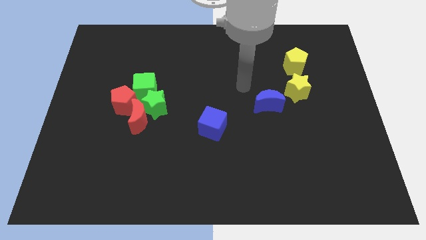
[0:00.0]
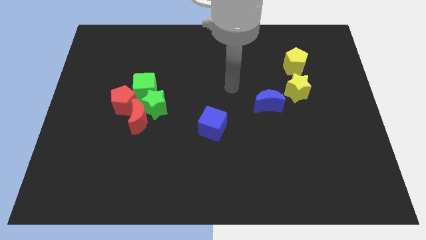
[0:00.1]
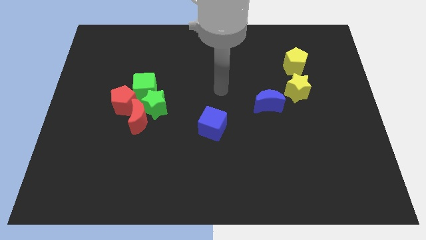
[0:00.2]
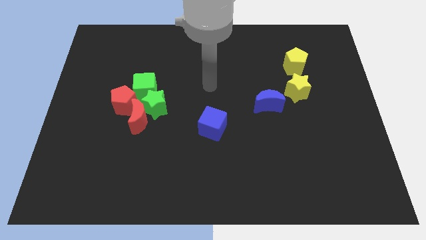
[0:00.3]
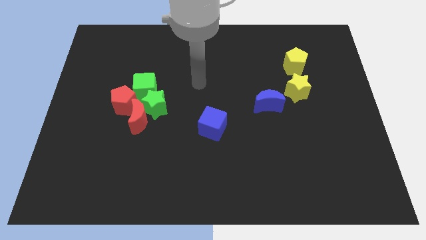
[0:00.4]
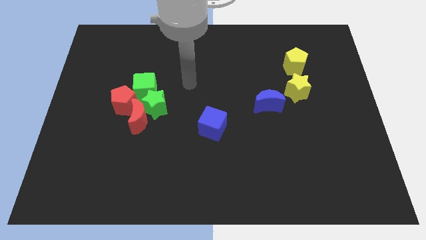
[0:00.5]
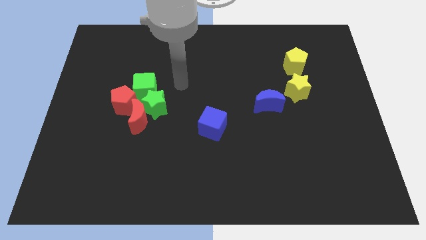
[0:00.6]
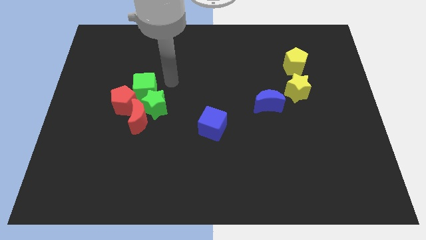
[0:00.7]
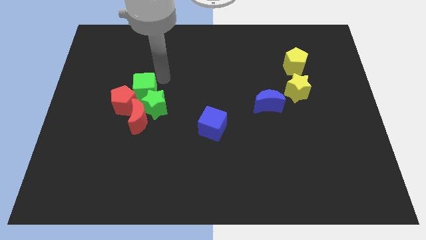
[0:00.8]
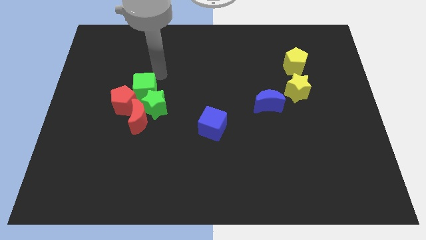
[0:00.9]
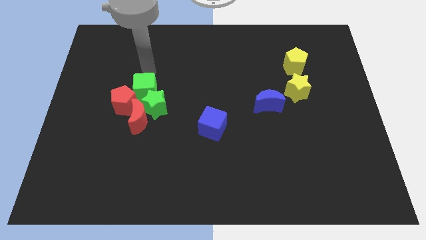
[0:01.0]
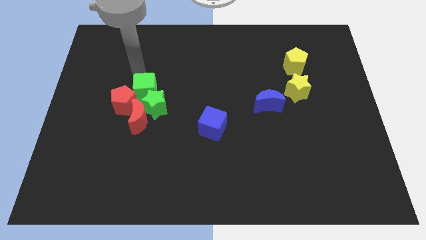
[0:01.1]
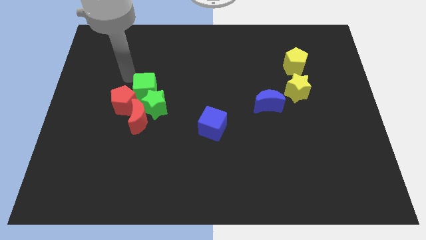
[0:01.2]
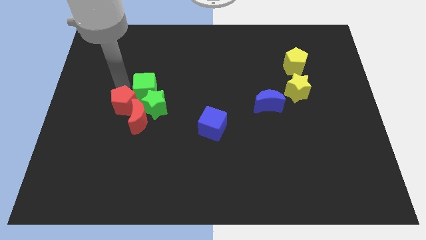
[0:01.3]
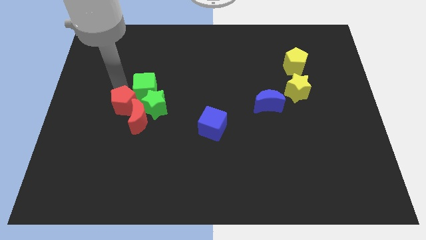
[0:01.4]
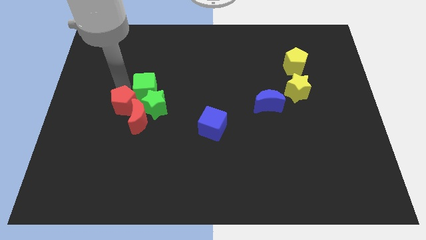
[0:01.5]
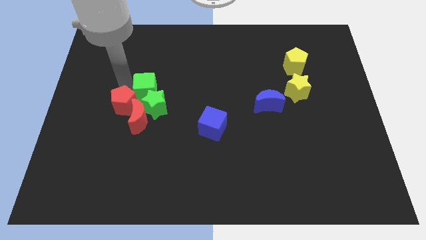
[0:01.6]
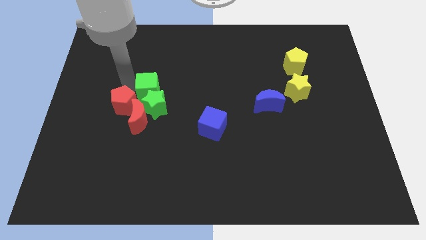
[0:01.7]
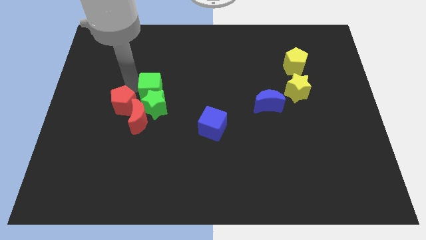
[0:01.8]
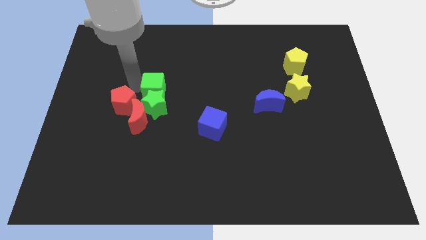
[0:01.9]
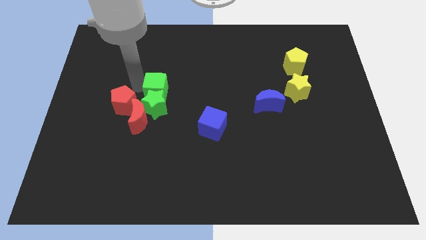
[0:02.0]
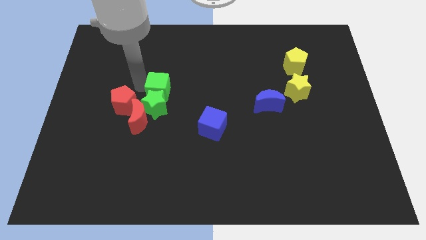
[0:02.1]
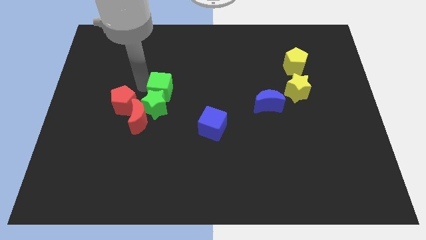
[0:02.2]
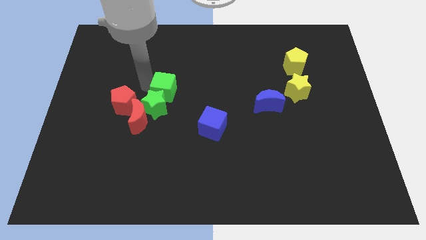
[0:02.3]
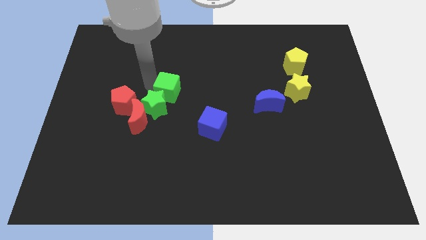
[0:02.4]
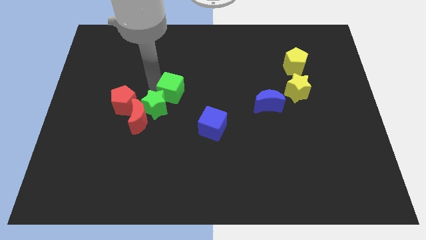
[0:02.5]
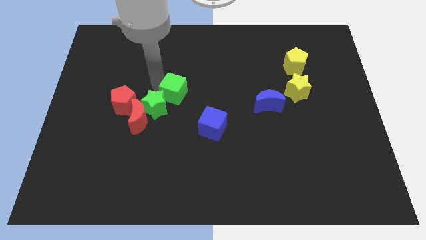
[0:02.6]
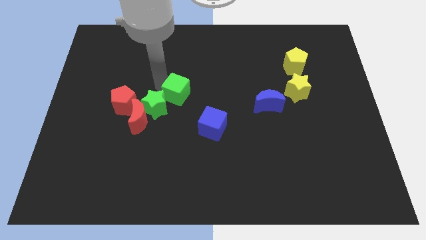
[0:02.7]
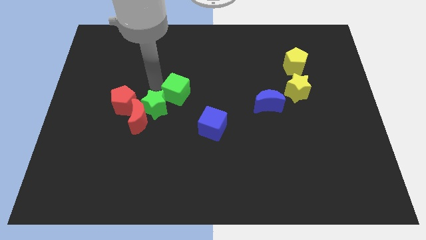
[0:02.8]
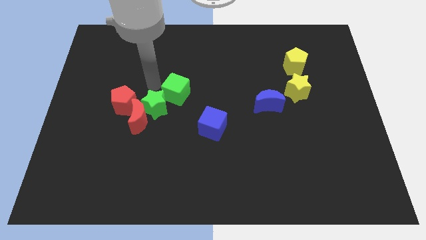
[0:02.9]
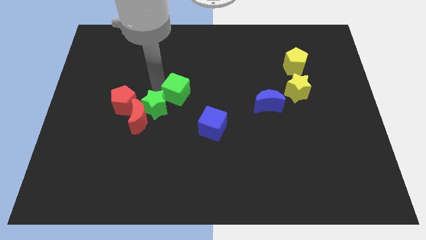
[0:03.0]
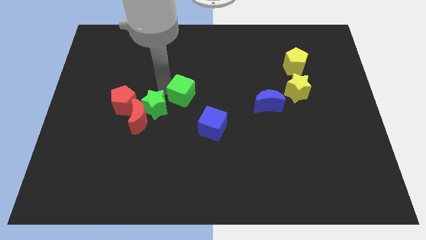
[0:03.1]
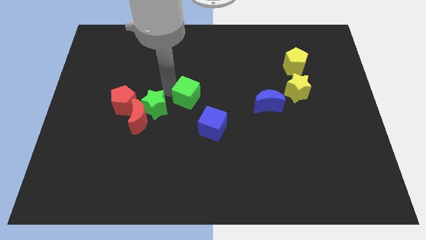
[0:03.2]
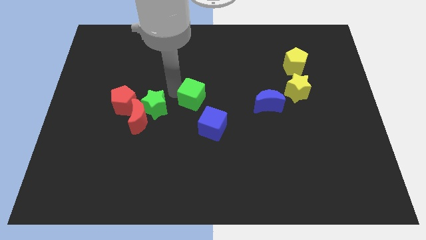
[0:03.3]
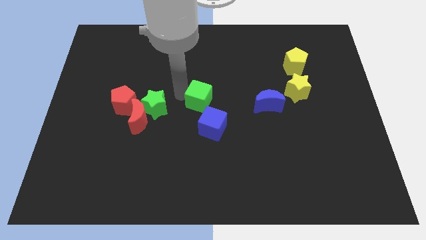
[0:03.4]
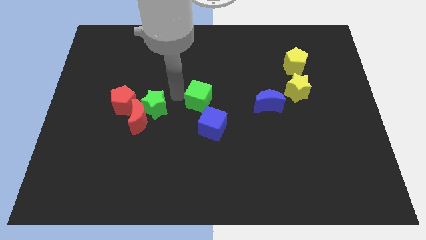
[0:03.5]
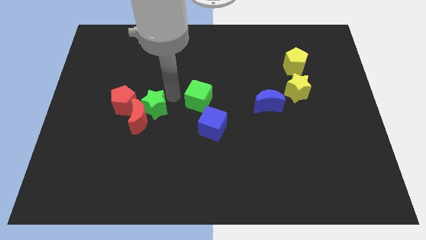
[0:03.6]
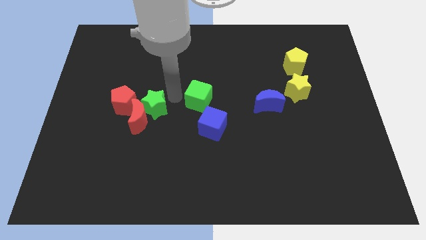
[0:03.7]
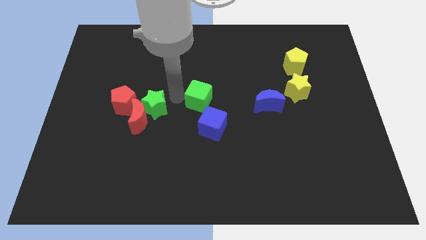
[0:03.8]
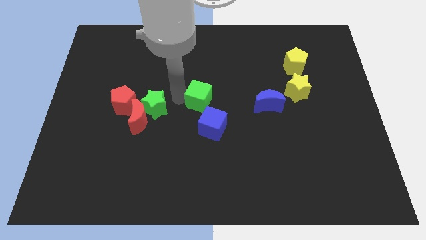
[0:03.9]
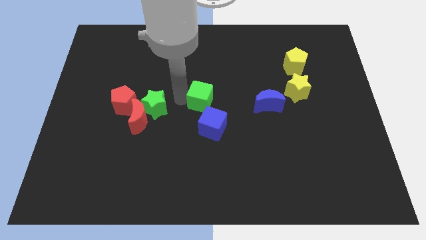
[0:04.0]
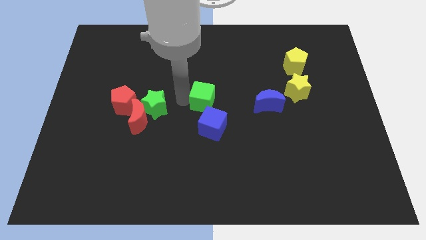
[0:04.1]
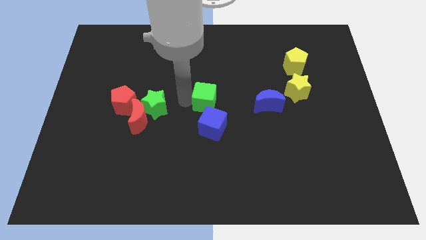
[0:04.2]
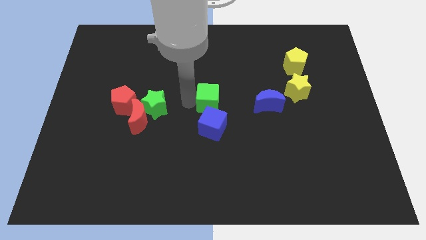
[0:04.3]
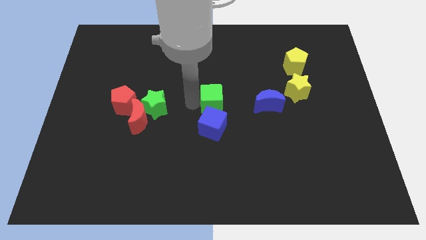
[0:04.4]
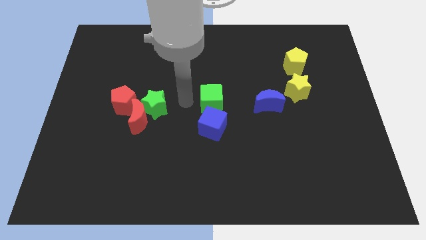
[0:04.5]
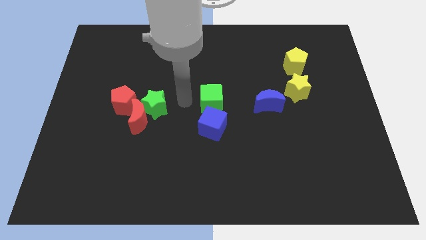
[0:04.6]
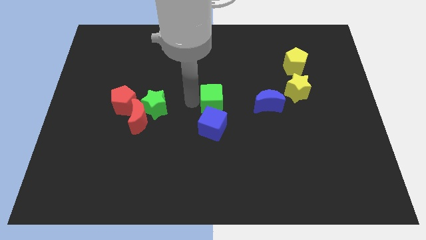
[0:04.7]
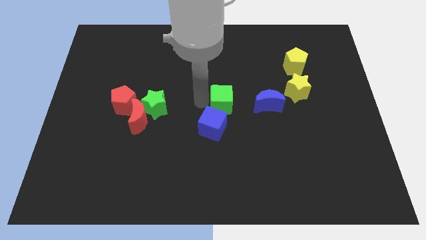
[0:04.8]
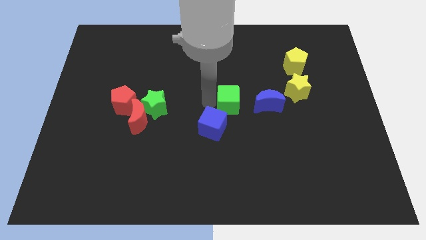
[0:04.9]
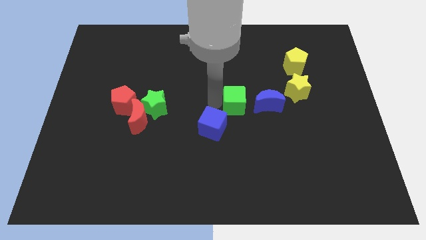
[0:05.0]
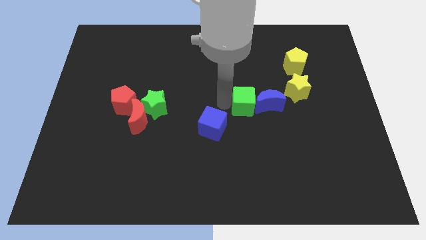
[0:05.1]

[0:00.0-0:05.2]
slide the green cube next to the blue moon

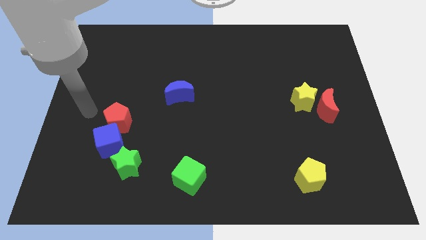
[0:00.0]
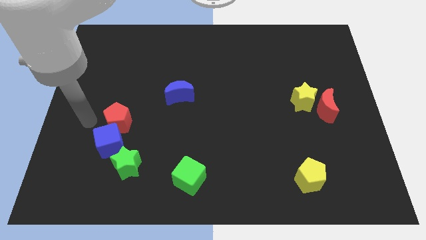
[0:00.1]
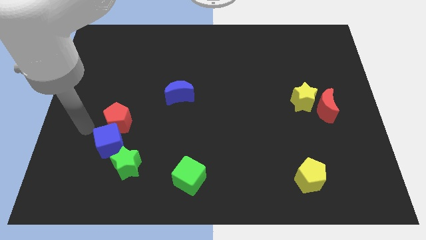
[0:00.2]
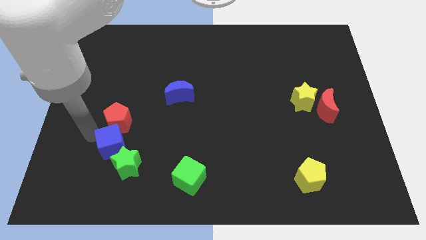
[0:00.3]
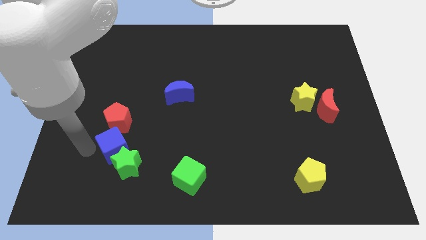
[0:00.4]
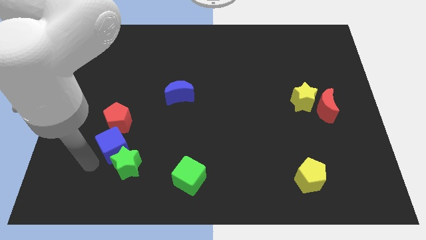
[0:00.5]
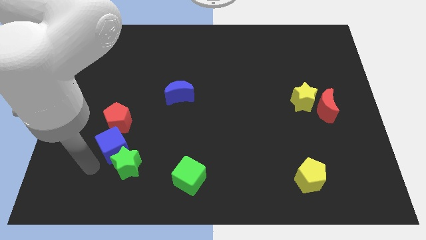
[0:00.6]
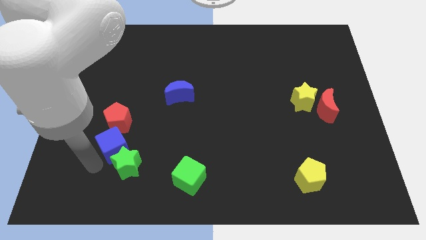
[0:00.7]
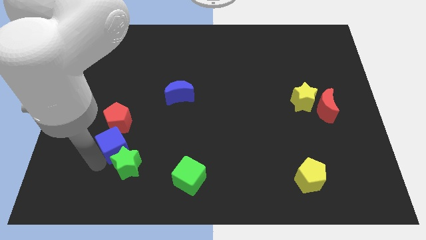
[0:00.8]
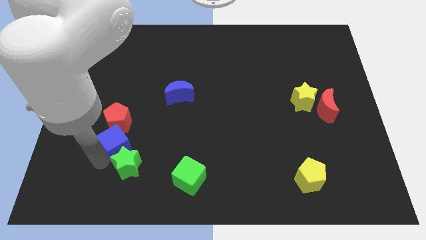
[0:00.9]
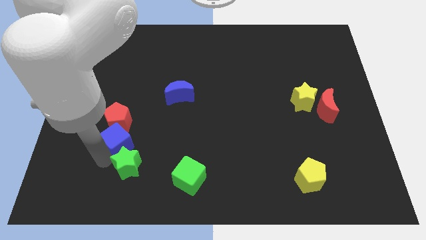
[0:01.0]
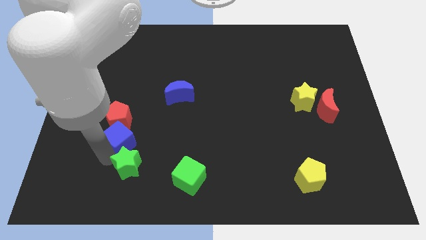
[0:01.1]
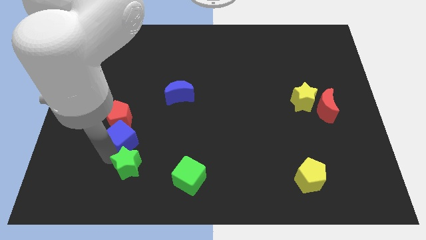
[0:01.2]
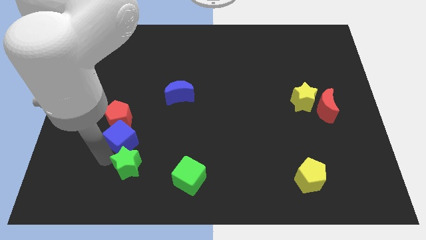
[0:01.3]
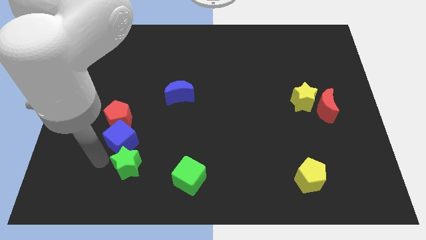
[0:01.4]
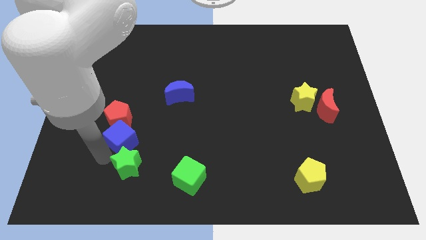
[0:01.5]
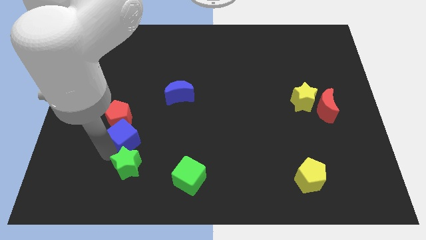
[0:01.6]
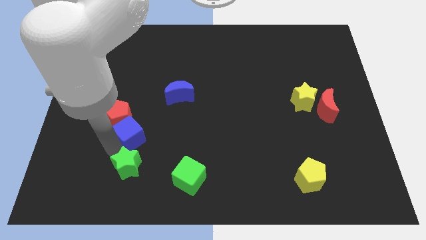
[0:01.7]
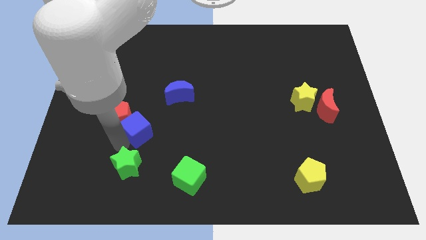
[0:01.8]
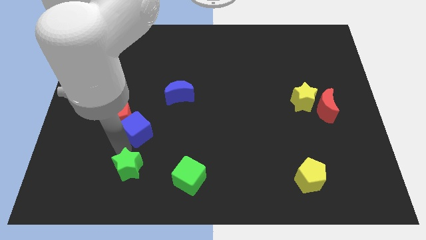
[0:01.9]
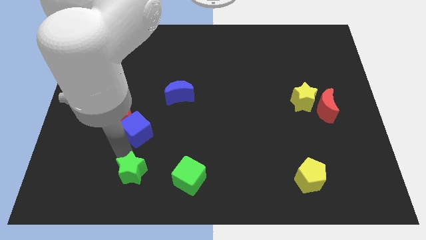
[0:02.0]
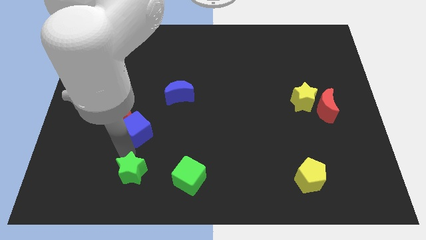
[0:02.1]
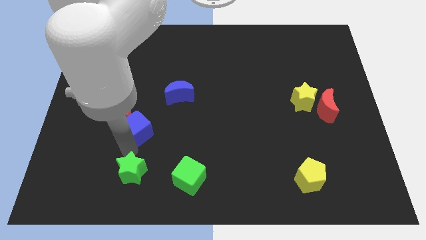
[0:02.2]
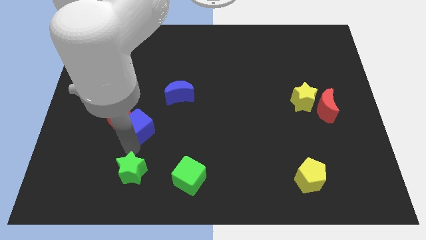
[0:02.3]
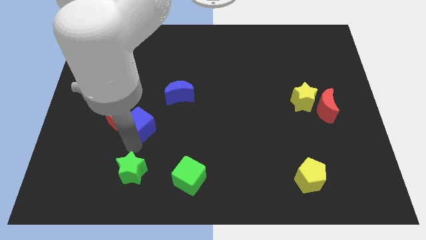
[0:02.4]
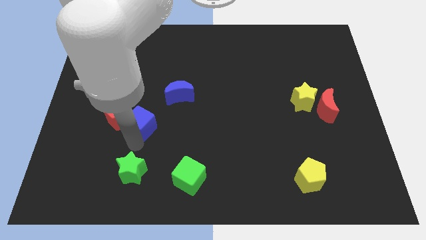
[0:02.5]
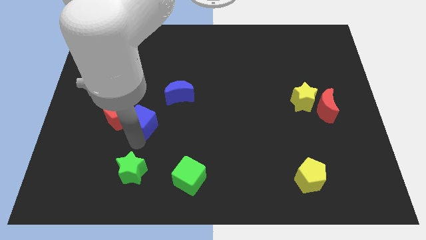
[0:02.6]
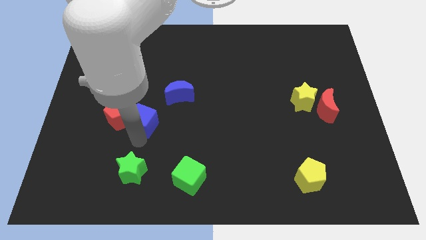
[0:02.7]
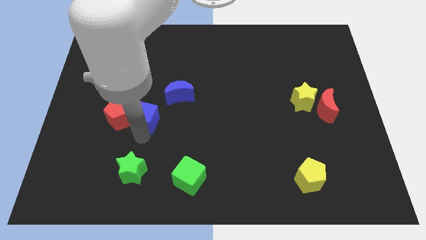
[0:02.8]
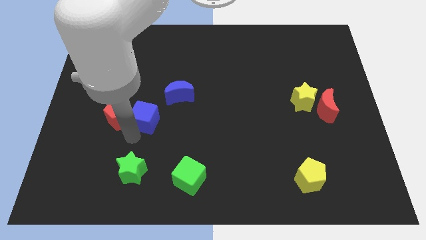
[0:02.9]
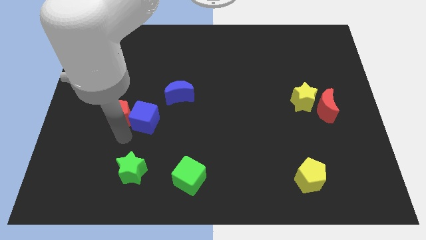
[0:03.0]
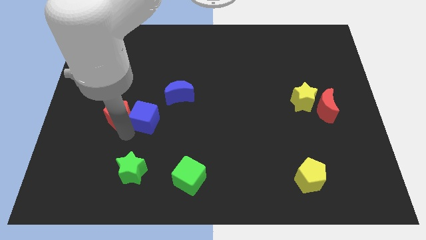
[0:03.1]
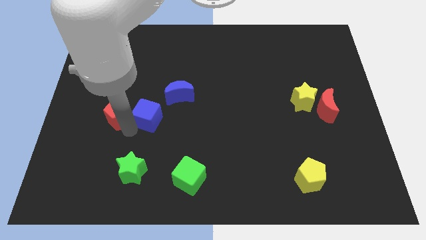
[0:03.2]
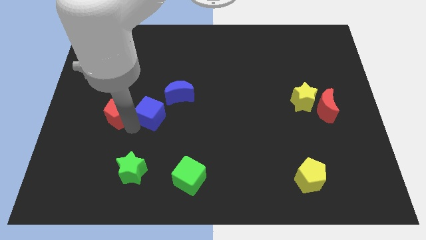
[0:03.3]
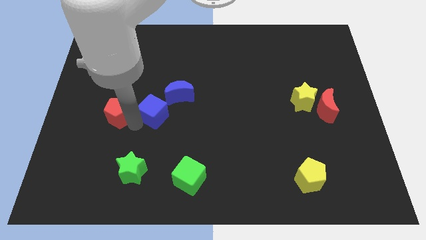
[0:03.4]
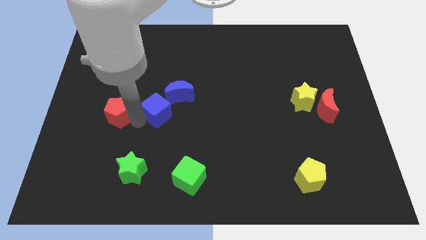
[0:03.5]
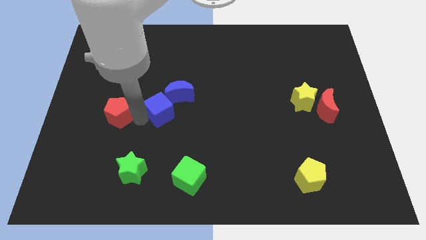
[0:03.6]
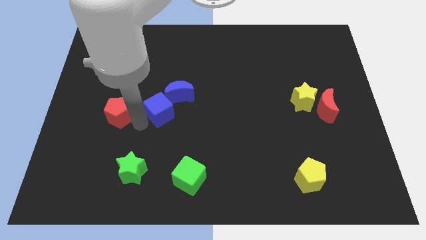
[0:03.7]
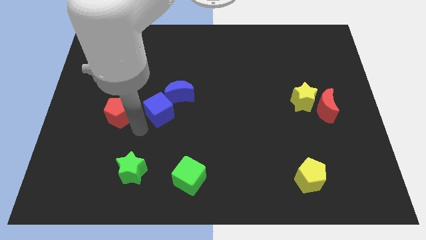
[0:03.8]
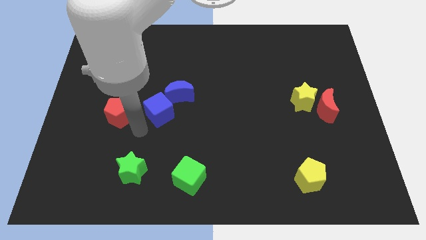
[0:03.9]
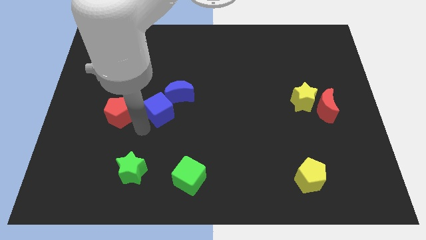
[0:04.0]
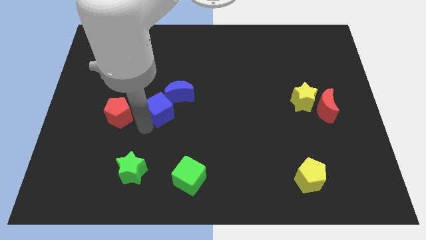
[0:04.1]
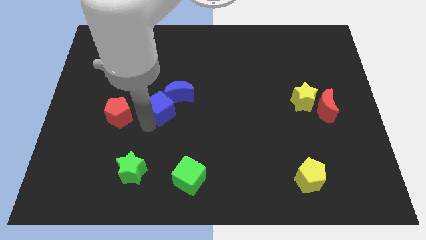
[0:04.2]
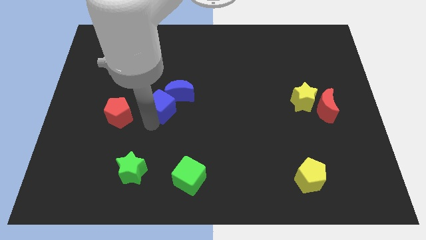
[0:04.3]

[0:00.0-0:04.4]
push the blue cube next to the blue moon
